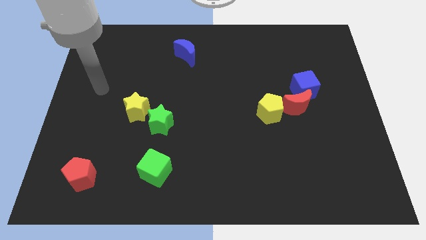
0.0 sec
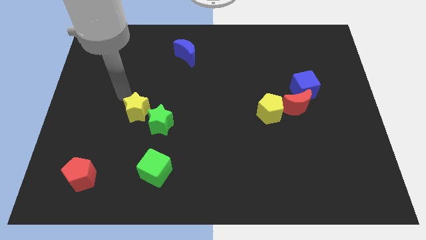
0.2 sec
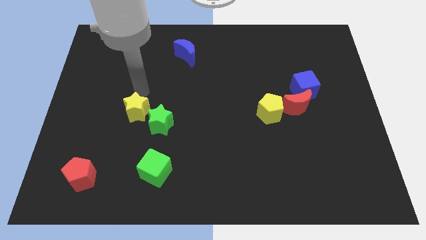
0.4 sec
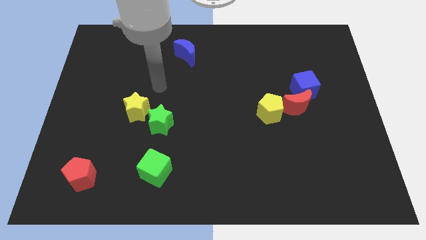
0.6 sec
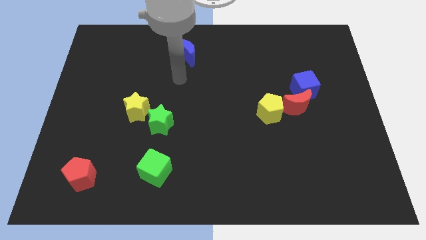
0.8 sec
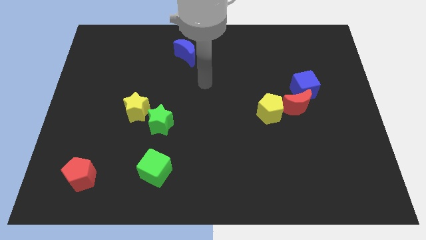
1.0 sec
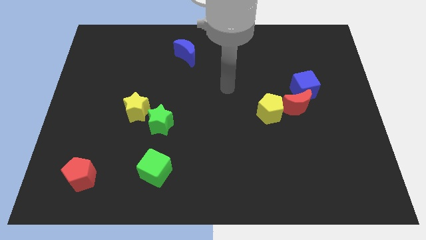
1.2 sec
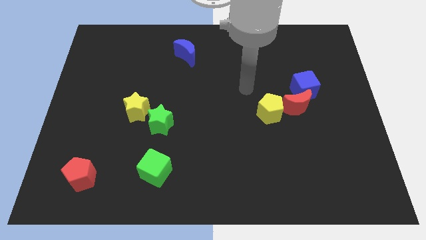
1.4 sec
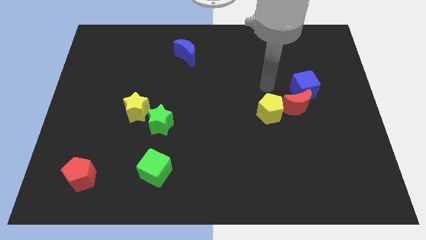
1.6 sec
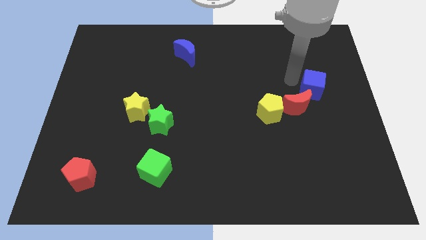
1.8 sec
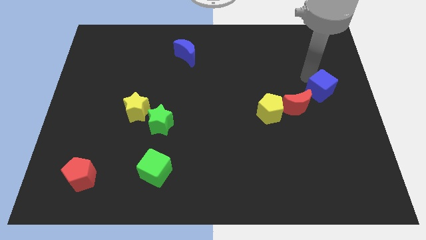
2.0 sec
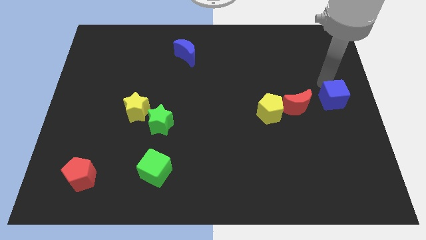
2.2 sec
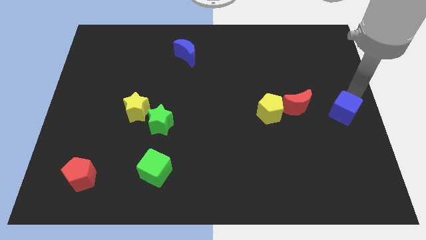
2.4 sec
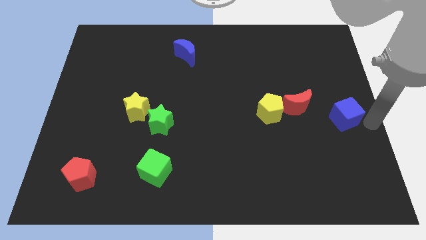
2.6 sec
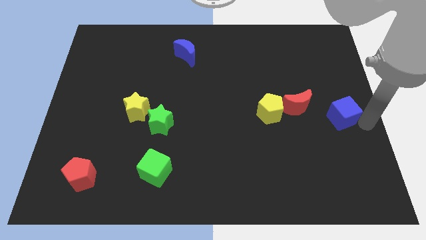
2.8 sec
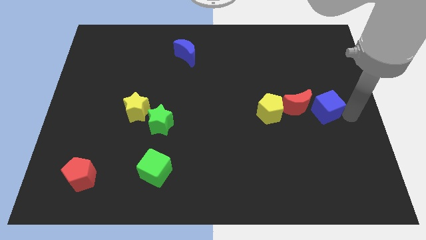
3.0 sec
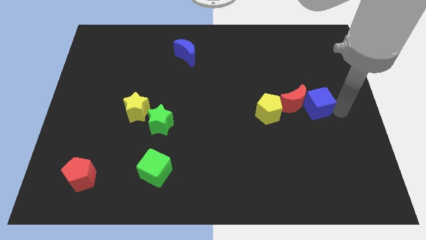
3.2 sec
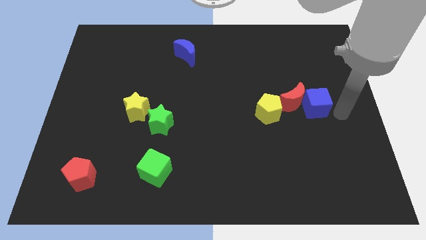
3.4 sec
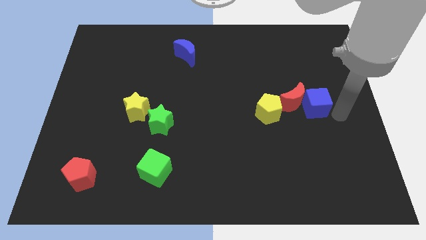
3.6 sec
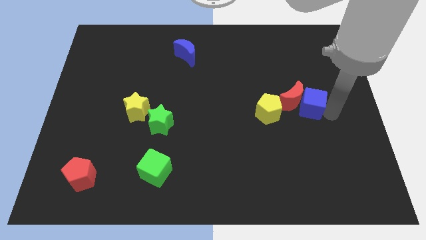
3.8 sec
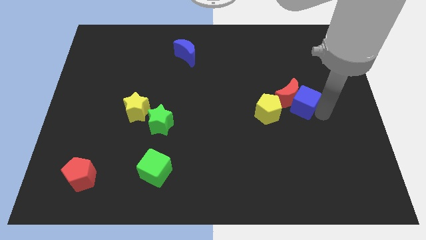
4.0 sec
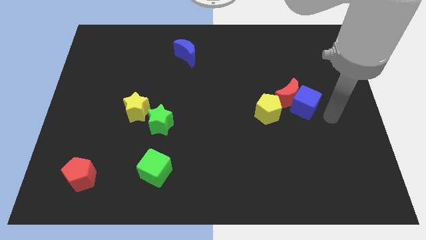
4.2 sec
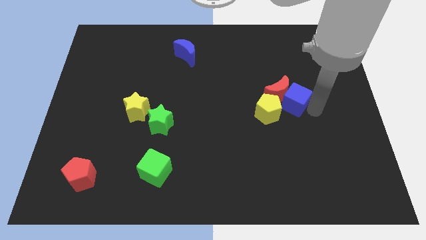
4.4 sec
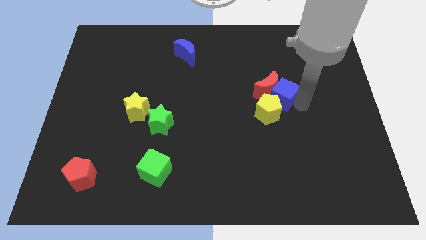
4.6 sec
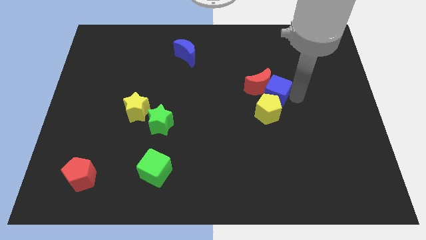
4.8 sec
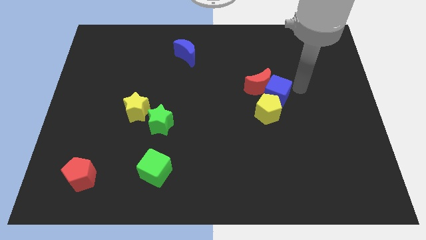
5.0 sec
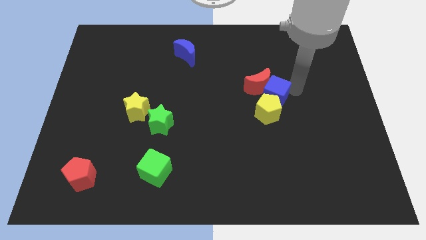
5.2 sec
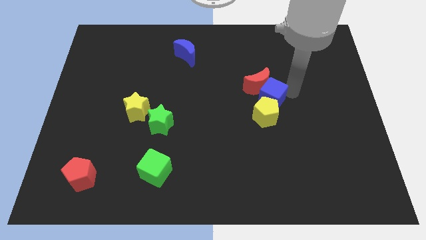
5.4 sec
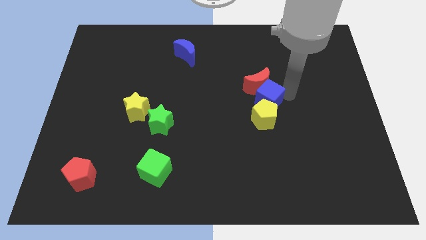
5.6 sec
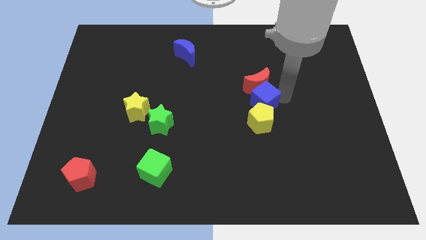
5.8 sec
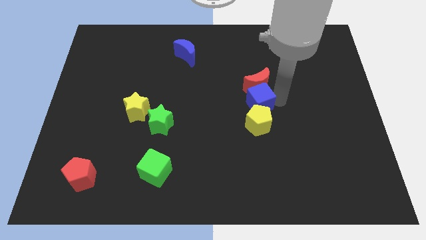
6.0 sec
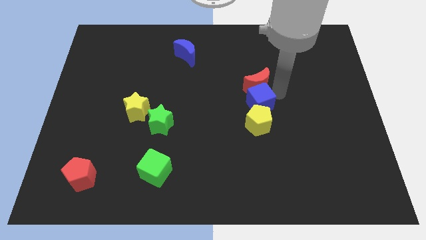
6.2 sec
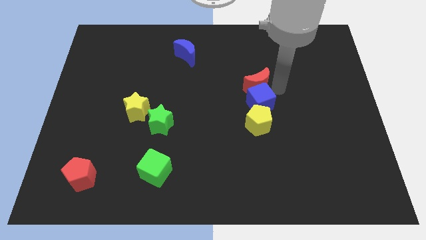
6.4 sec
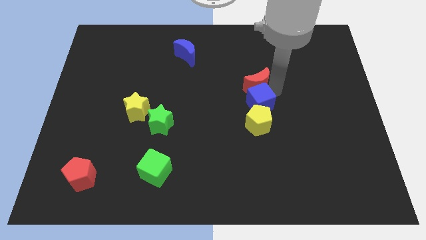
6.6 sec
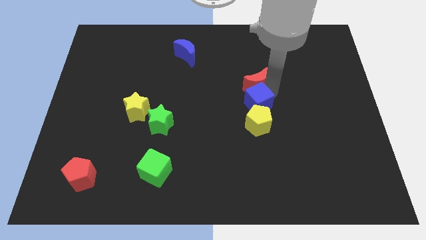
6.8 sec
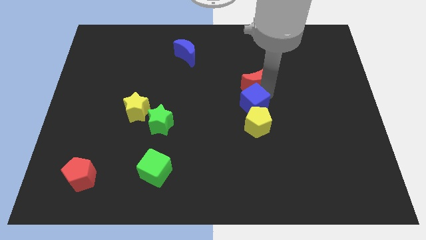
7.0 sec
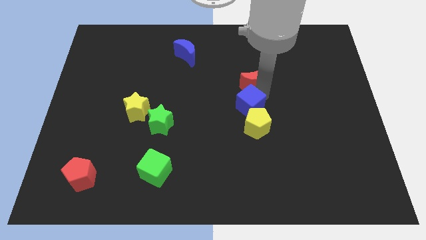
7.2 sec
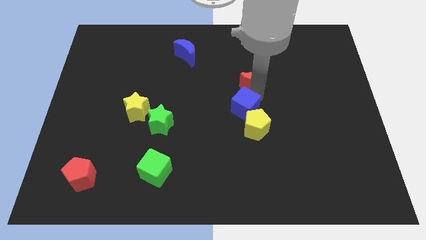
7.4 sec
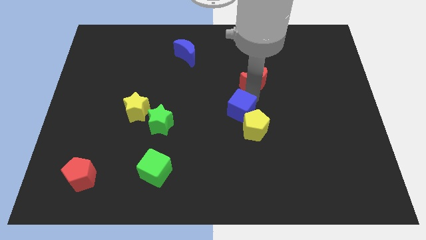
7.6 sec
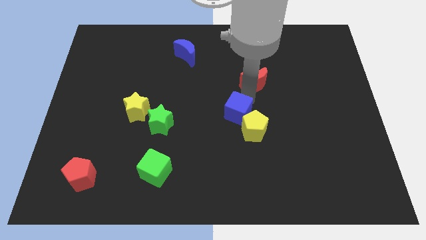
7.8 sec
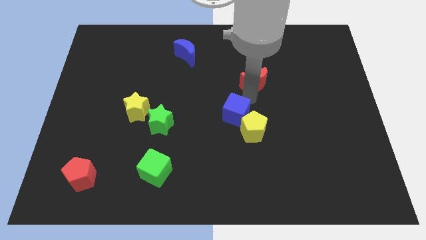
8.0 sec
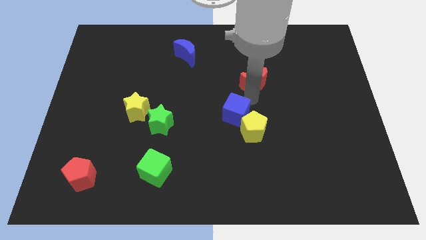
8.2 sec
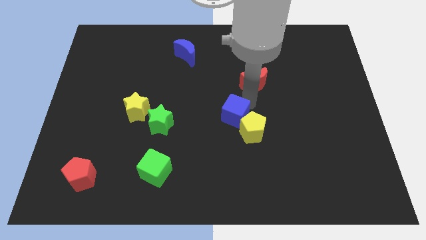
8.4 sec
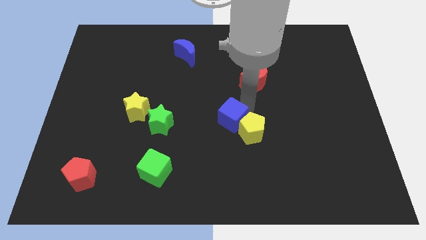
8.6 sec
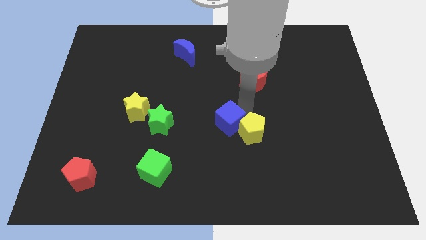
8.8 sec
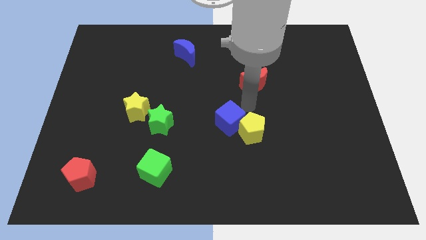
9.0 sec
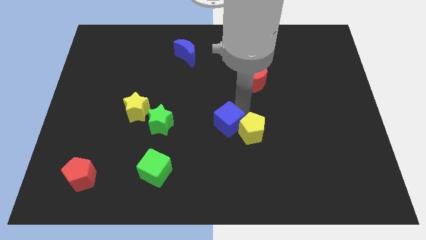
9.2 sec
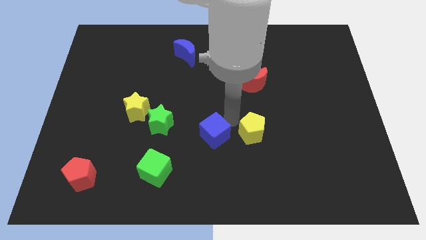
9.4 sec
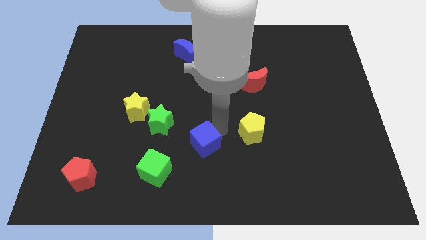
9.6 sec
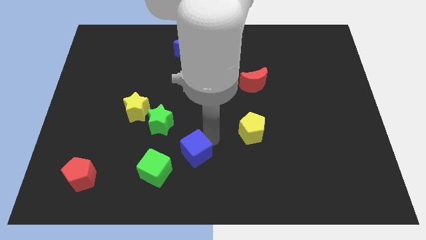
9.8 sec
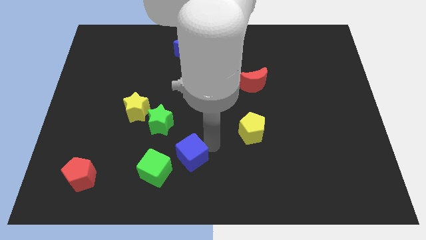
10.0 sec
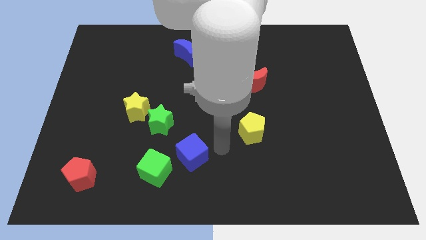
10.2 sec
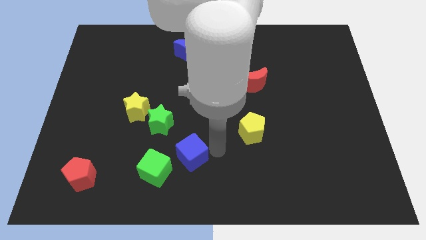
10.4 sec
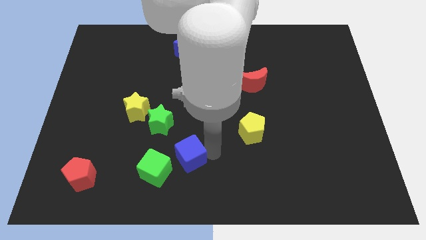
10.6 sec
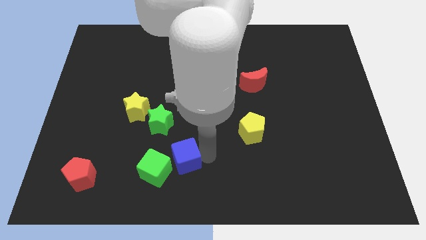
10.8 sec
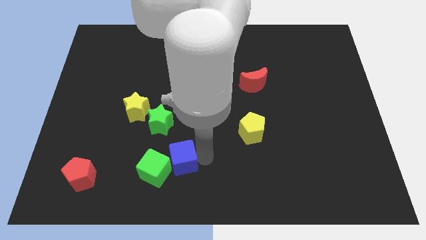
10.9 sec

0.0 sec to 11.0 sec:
push the blue cube close to the green cube

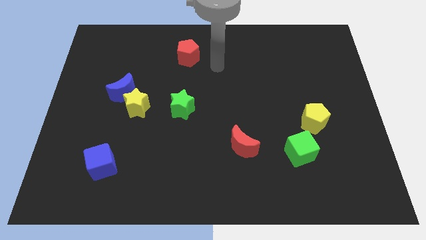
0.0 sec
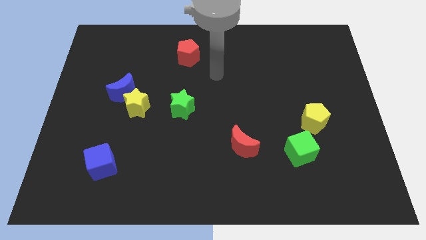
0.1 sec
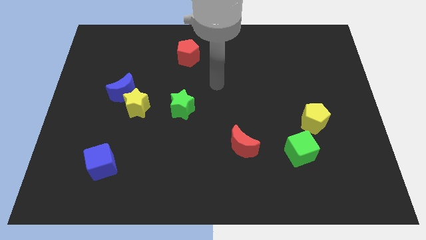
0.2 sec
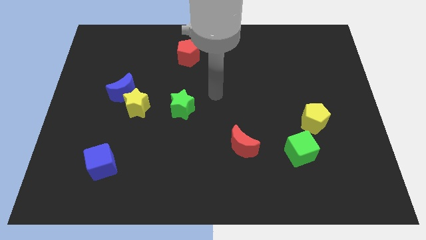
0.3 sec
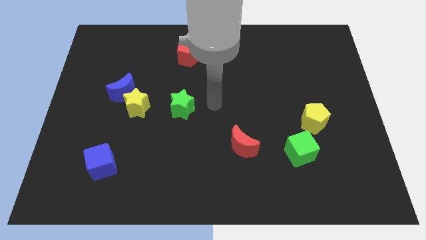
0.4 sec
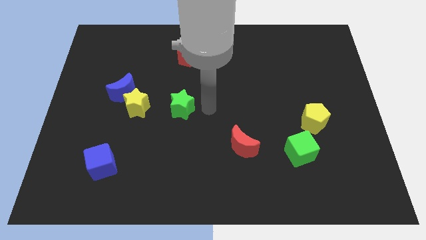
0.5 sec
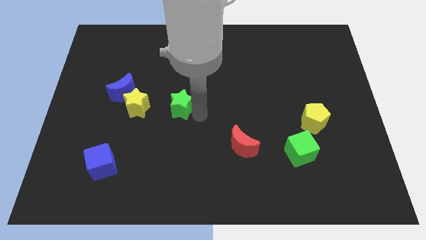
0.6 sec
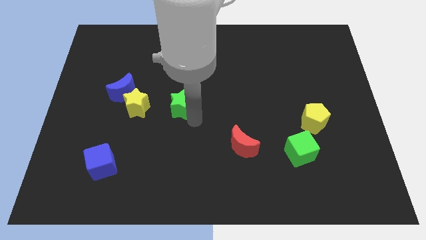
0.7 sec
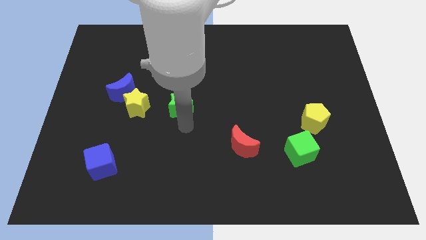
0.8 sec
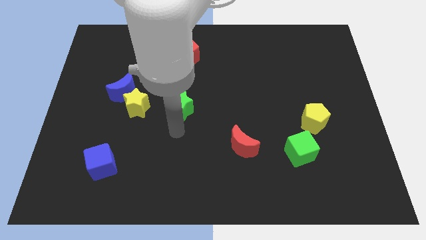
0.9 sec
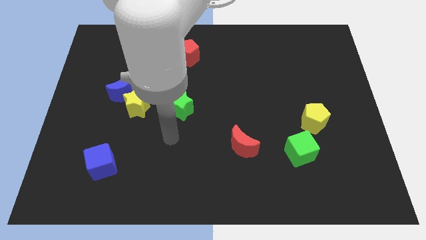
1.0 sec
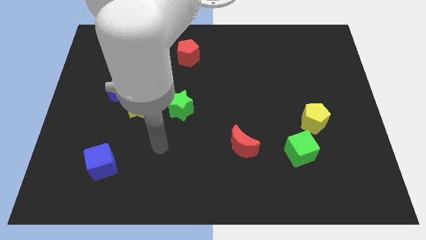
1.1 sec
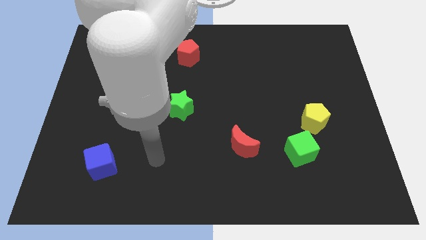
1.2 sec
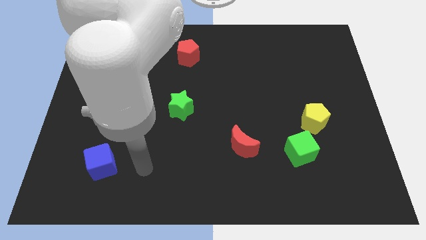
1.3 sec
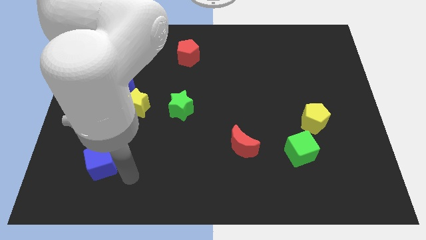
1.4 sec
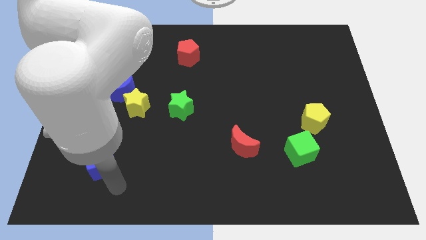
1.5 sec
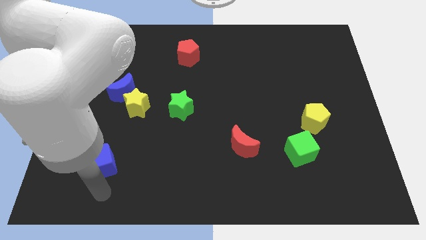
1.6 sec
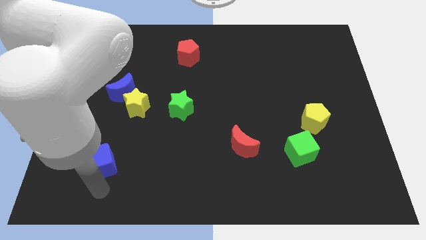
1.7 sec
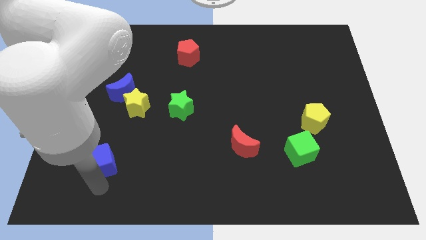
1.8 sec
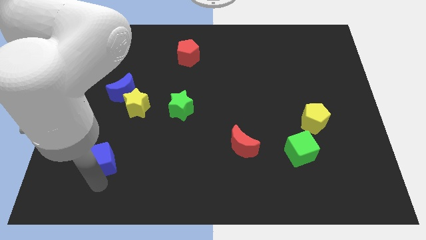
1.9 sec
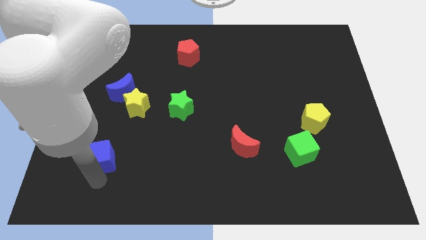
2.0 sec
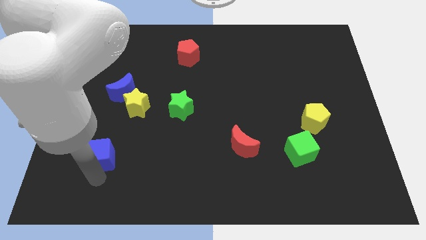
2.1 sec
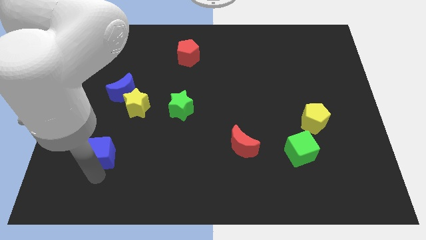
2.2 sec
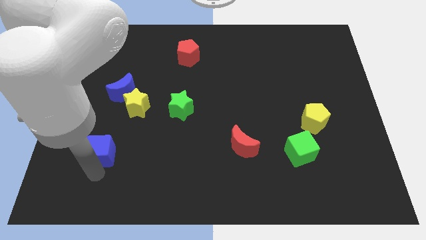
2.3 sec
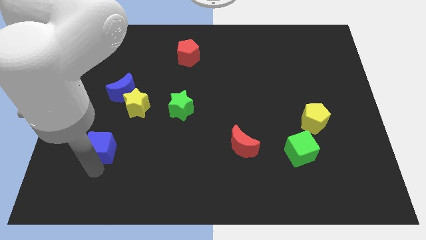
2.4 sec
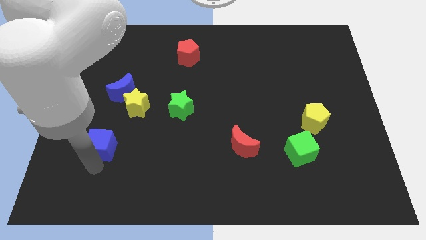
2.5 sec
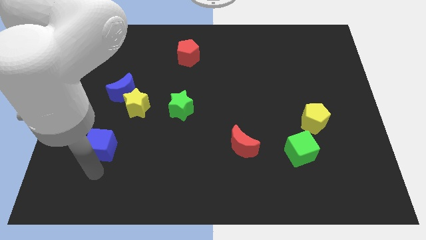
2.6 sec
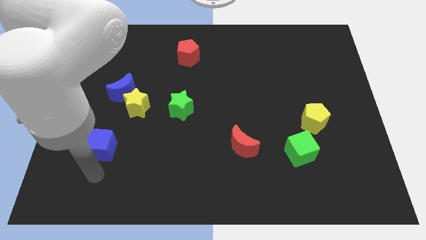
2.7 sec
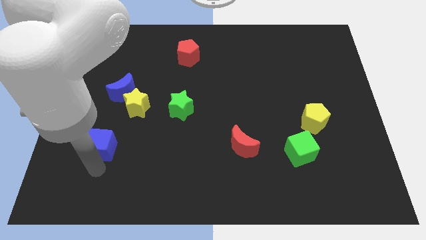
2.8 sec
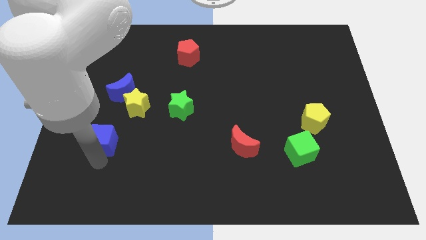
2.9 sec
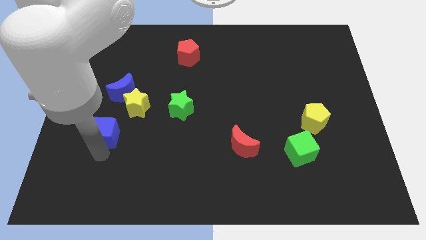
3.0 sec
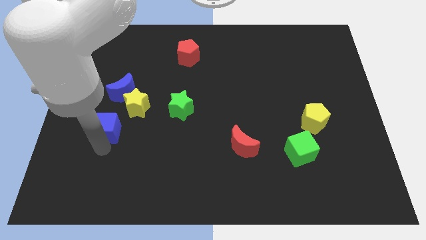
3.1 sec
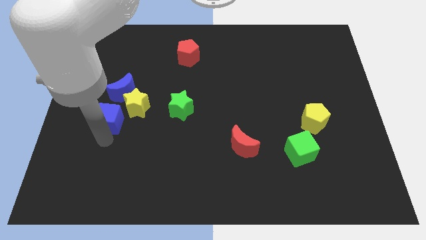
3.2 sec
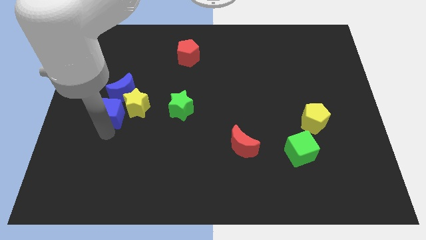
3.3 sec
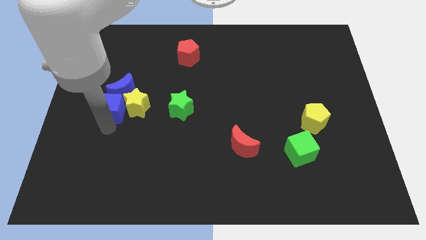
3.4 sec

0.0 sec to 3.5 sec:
slide the blue cube next to the blue moon
